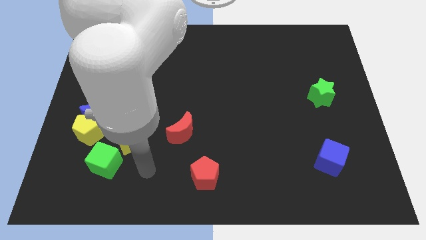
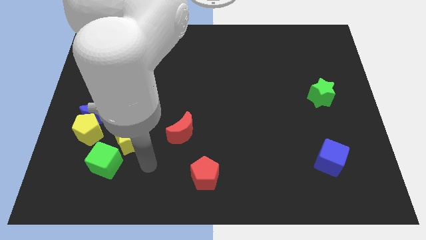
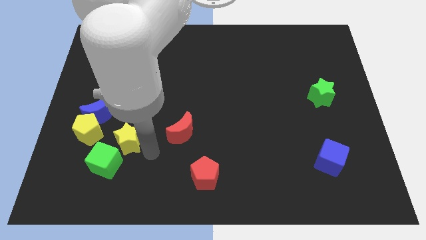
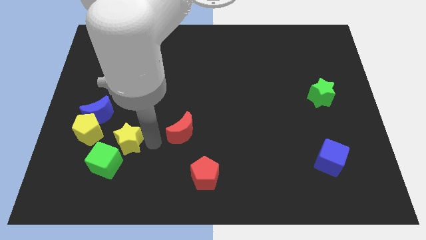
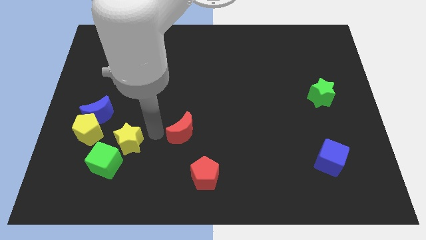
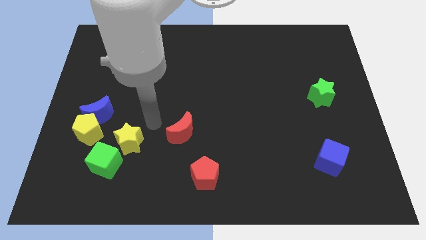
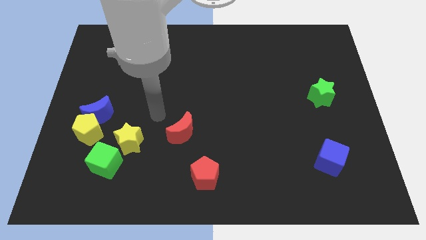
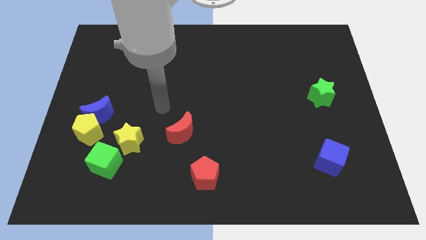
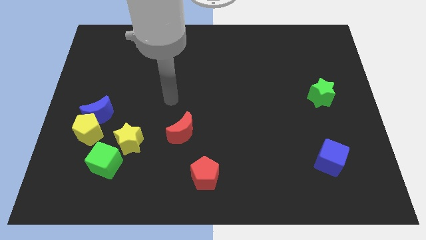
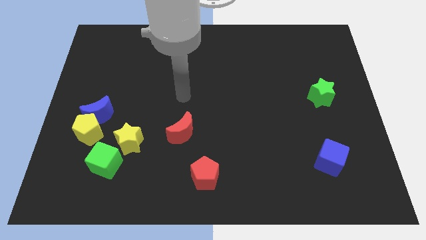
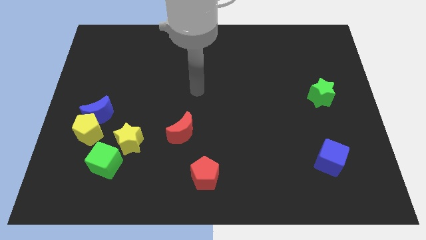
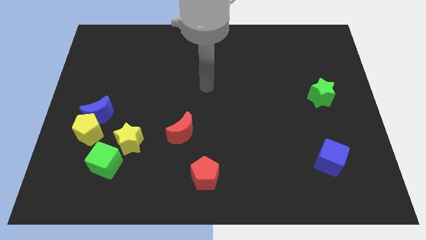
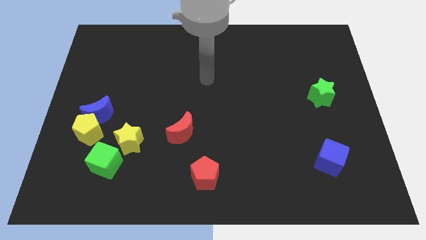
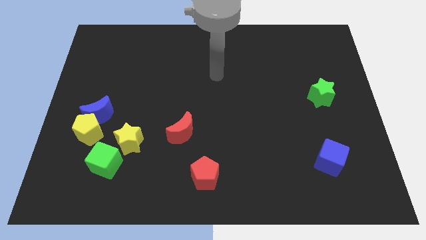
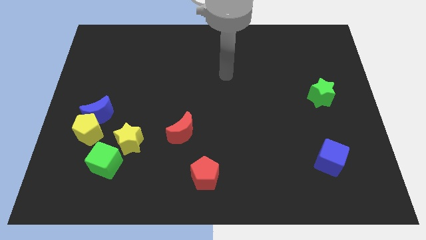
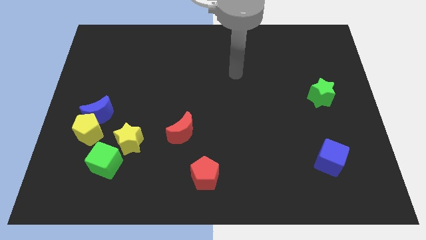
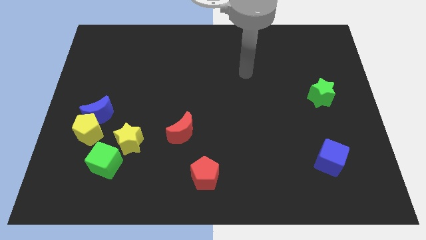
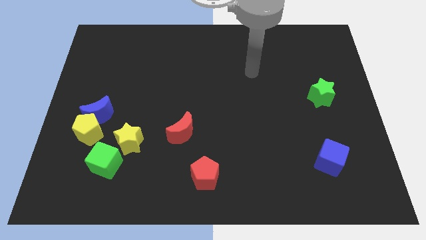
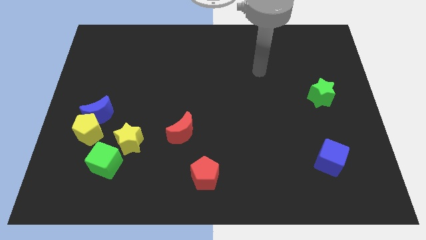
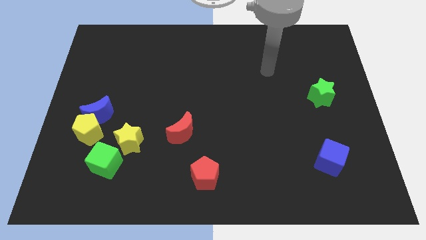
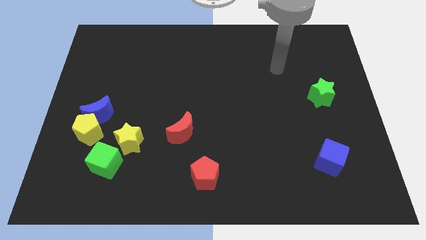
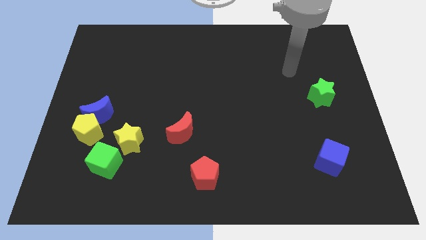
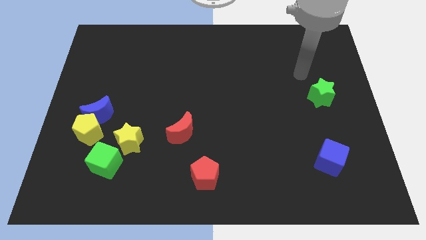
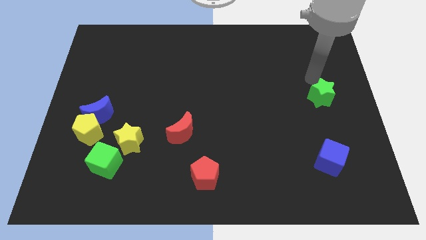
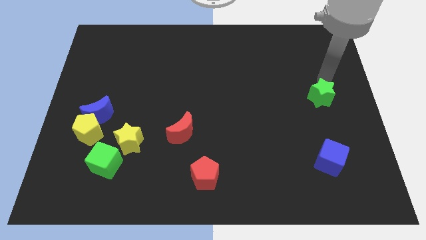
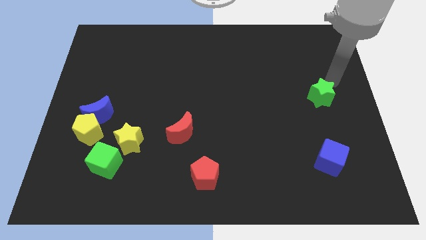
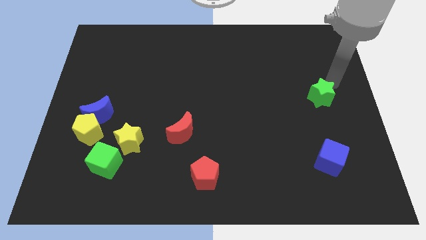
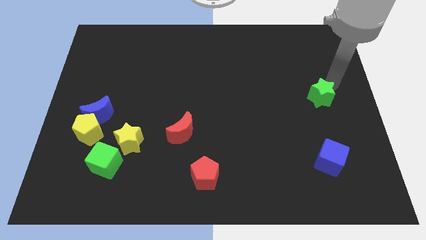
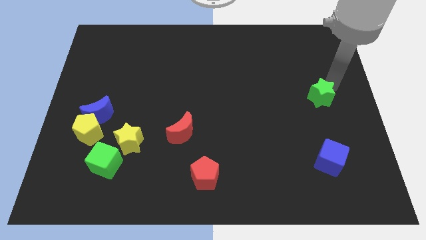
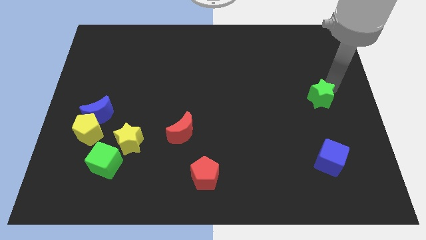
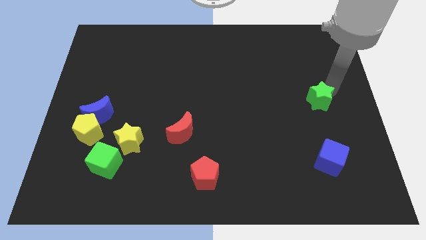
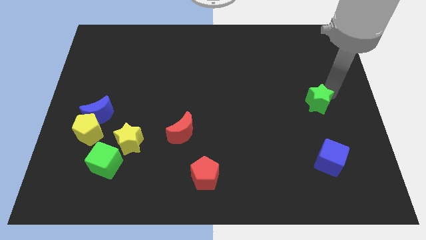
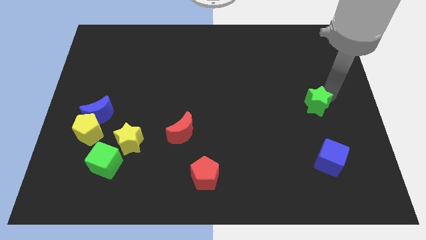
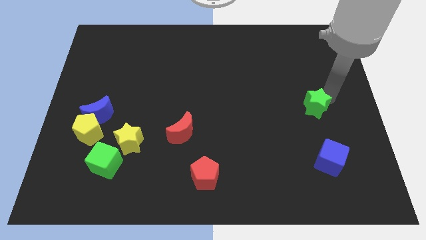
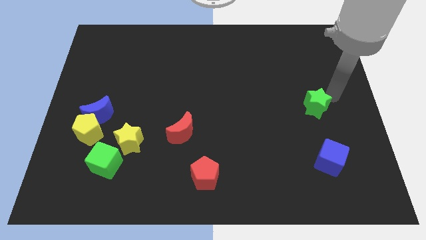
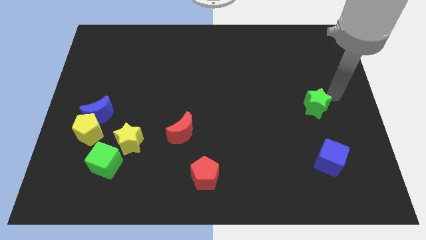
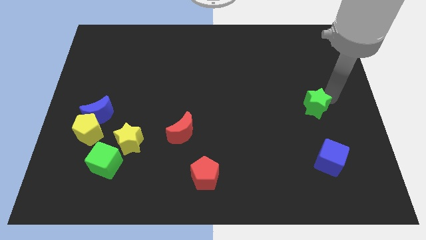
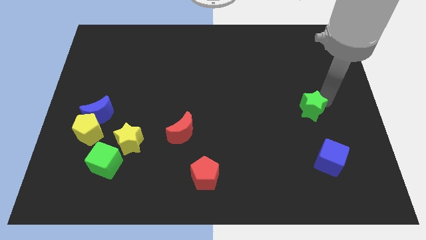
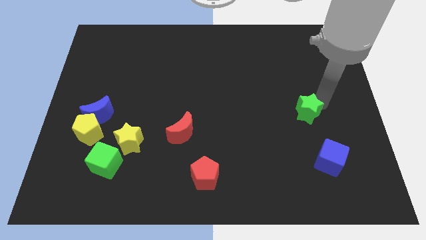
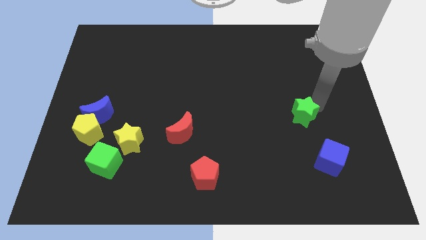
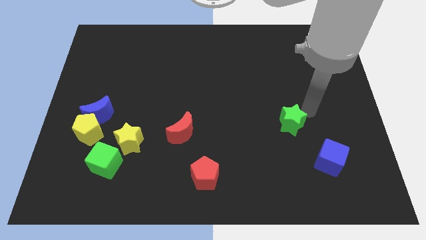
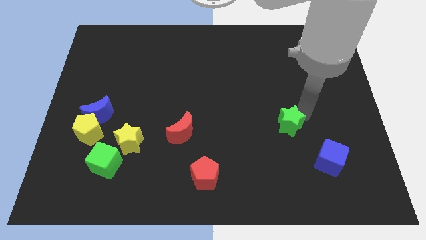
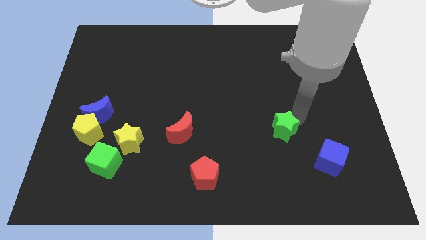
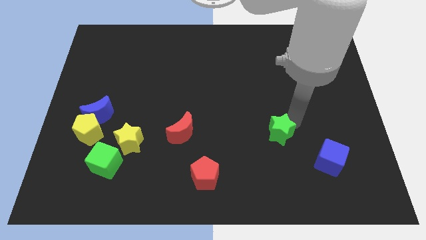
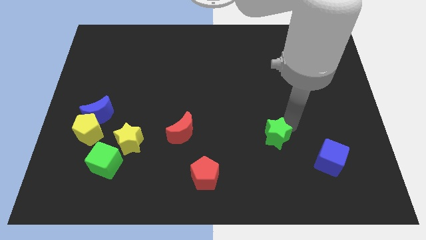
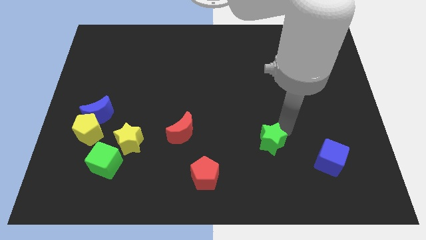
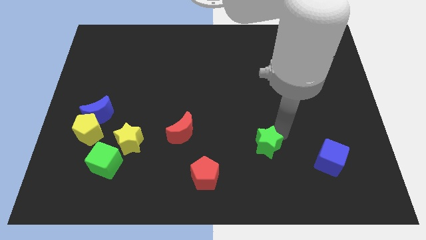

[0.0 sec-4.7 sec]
push the green star diagonally downwards and left

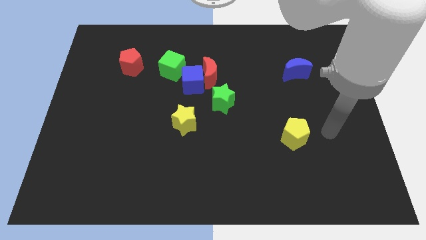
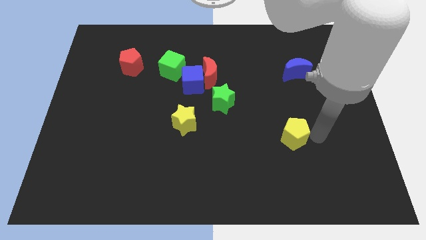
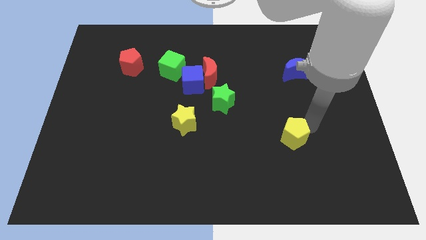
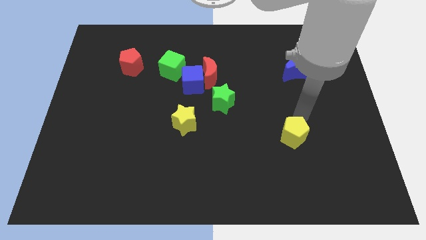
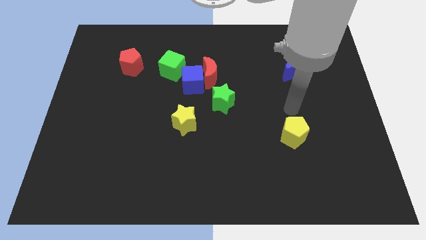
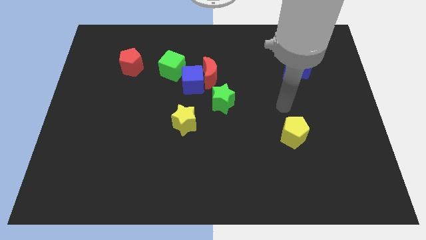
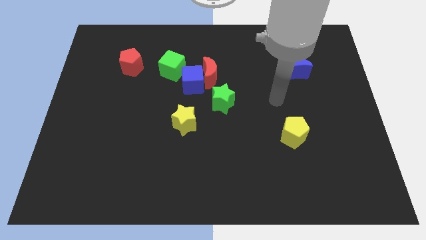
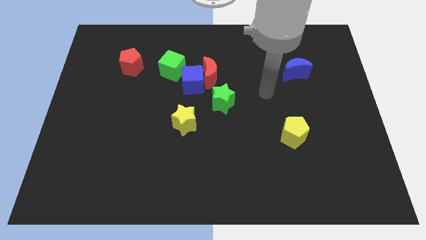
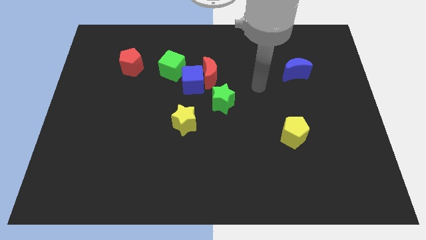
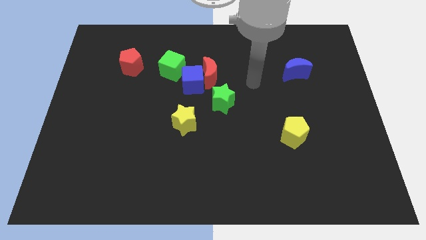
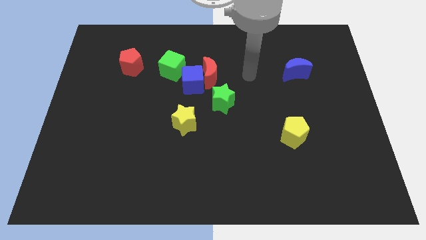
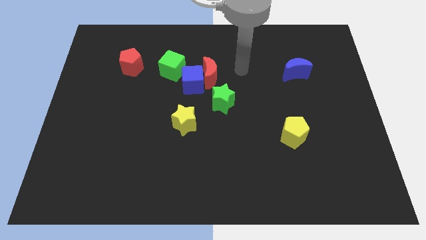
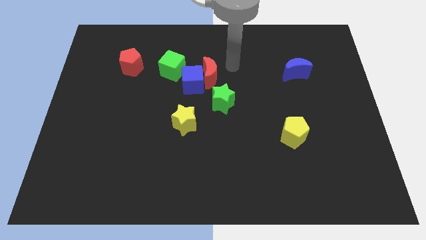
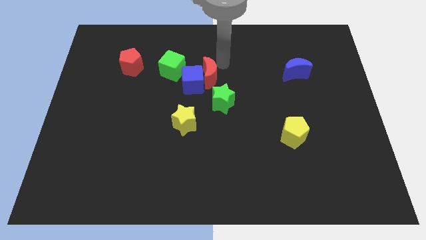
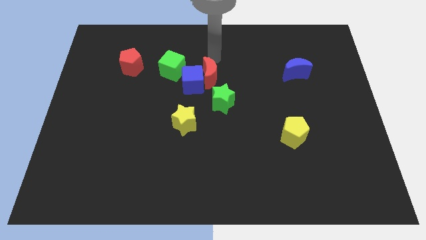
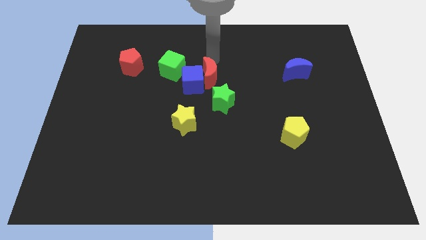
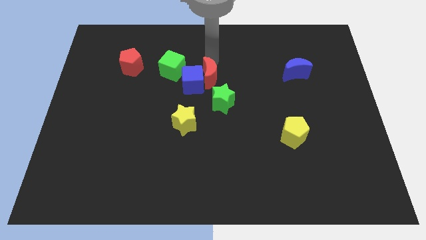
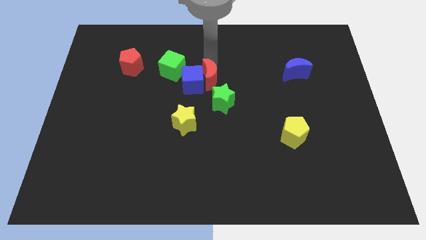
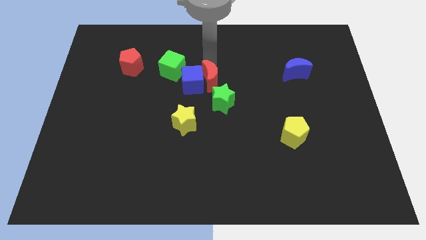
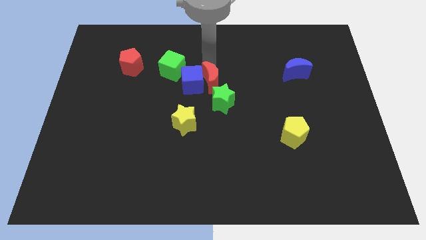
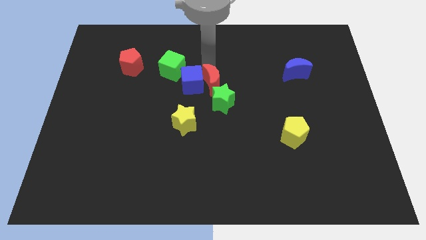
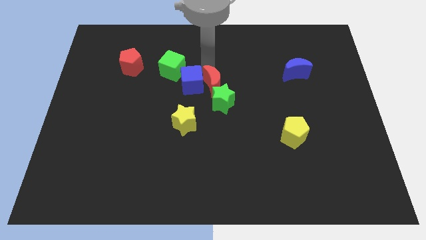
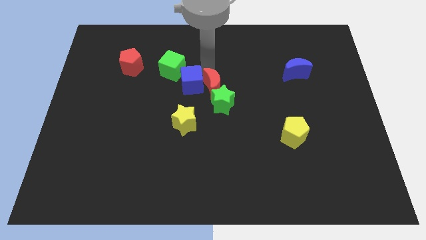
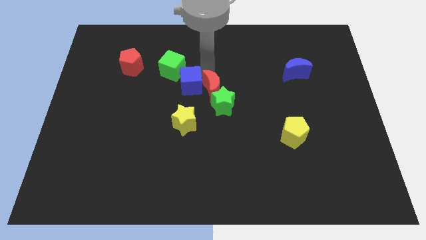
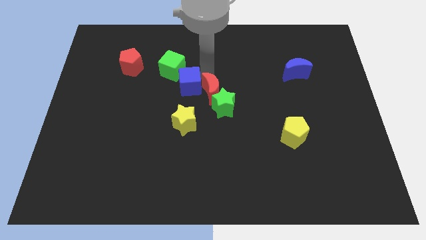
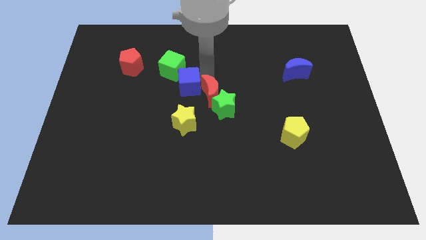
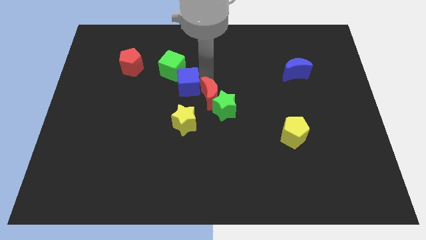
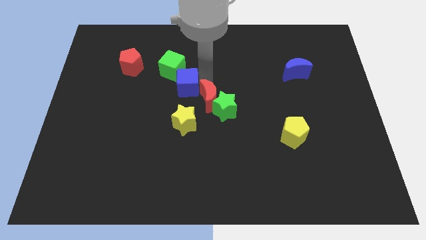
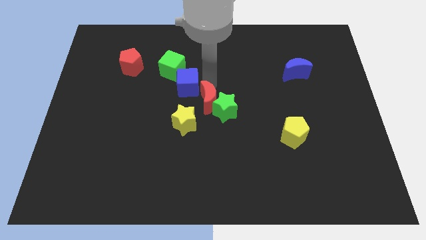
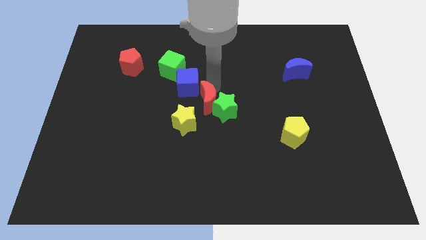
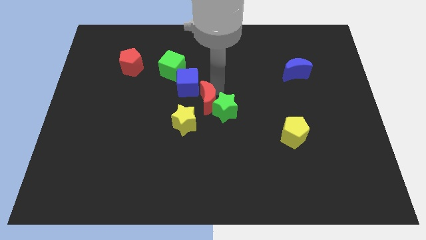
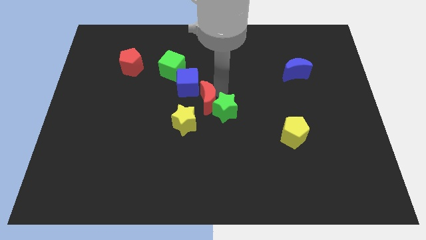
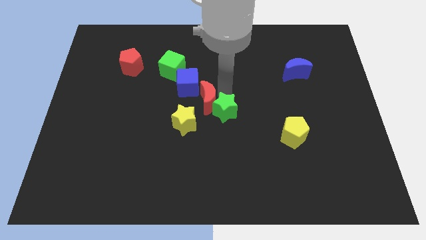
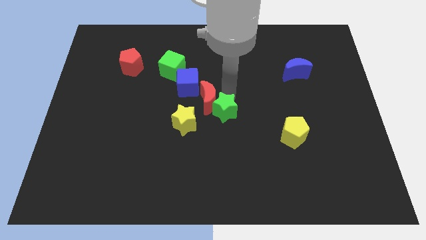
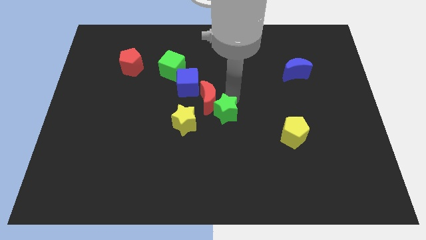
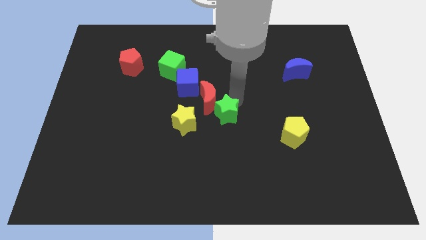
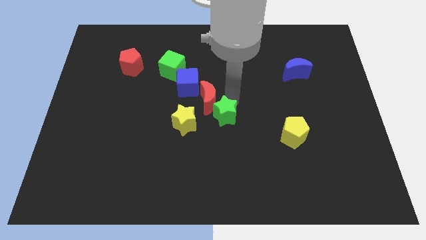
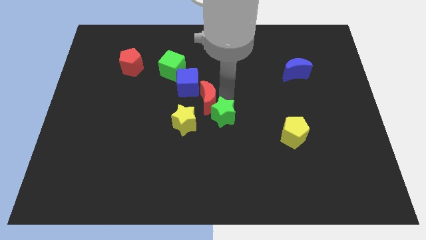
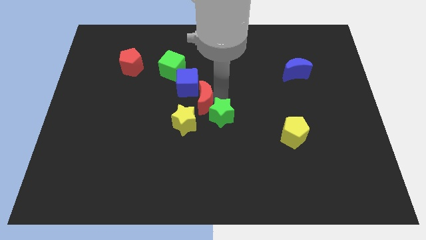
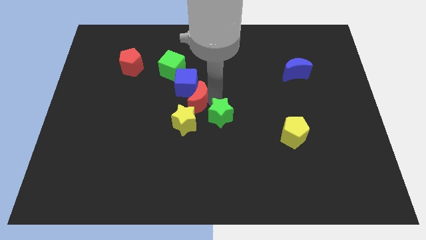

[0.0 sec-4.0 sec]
slide the red moon a bit downwards and to the left
